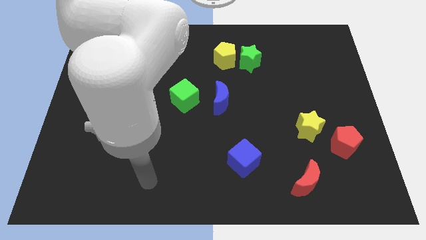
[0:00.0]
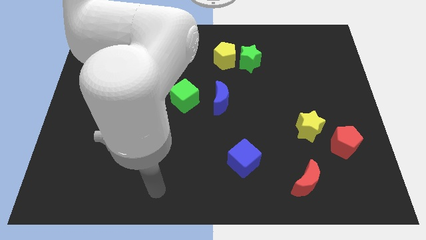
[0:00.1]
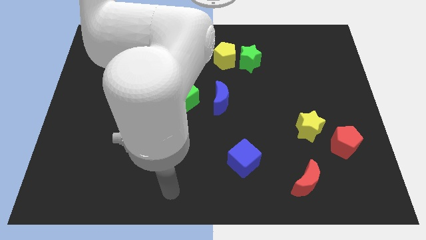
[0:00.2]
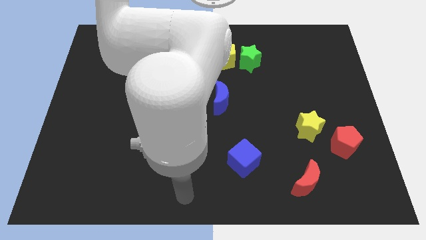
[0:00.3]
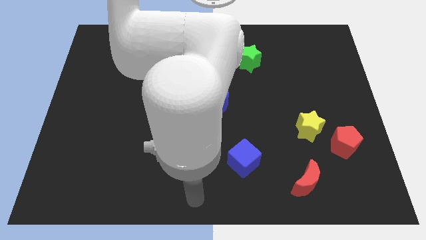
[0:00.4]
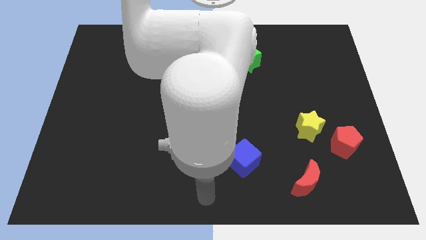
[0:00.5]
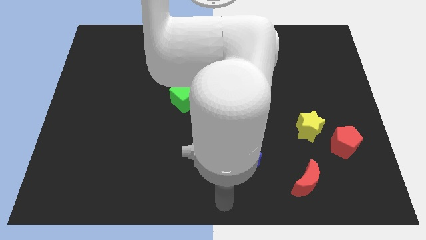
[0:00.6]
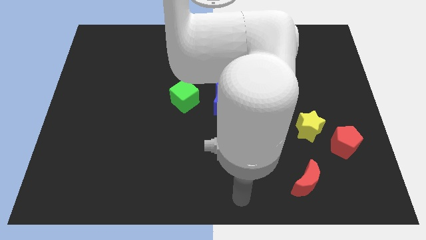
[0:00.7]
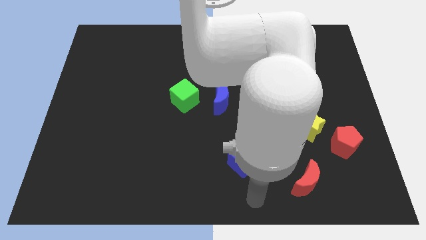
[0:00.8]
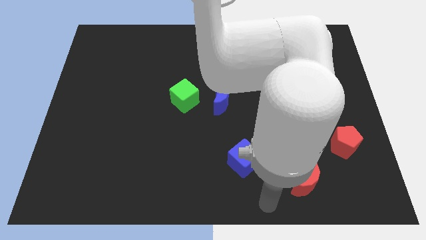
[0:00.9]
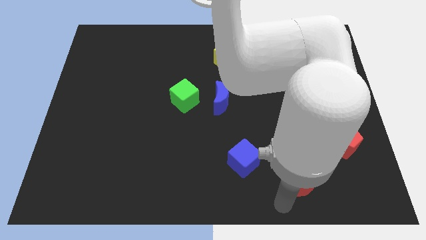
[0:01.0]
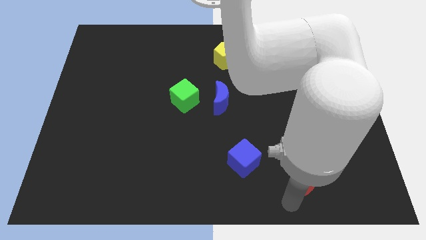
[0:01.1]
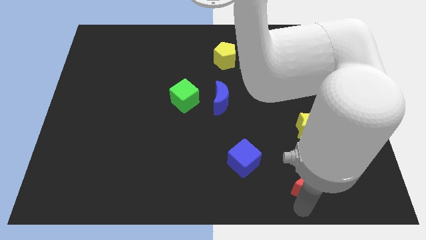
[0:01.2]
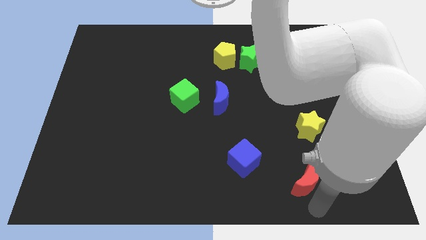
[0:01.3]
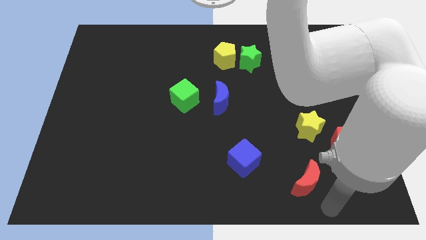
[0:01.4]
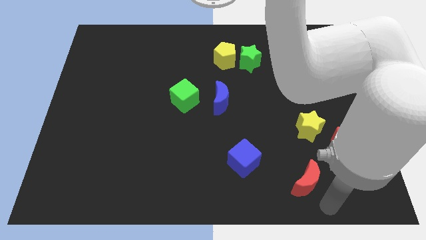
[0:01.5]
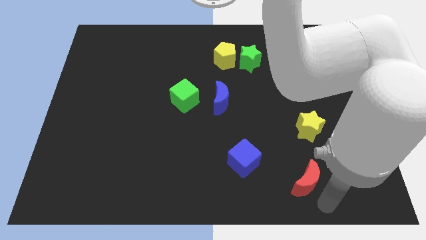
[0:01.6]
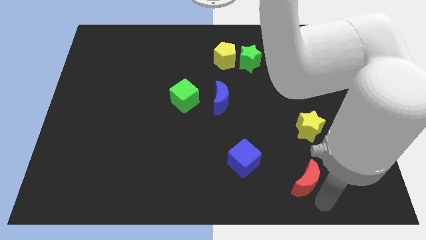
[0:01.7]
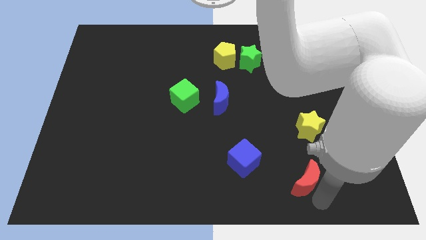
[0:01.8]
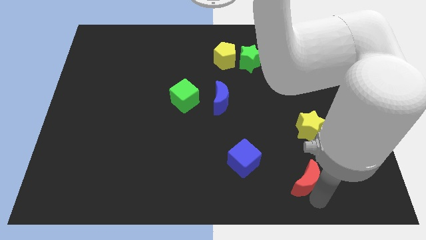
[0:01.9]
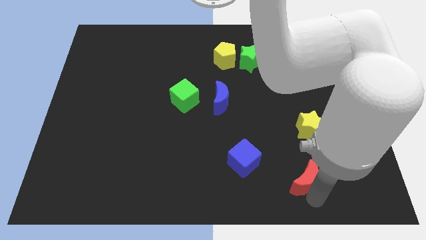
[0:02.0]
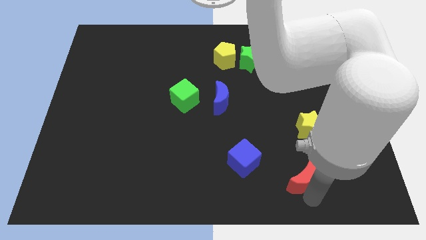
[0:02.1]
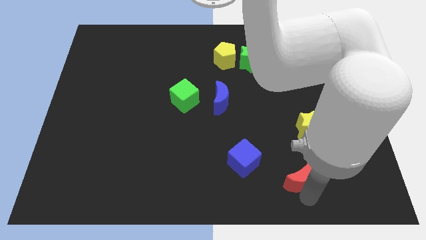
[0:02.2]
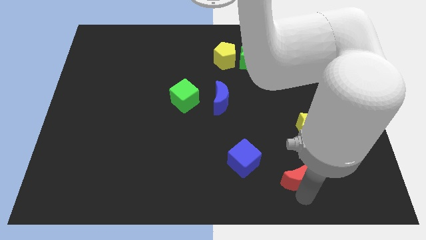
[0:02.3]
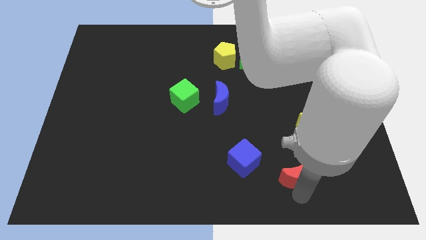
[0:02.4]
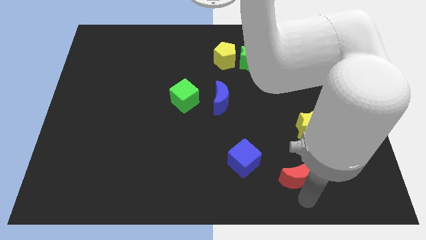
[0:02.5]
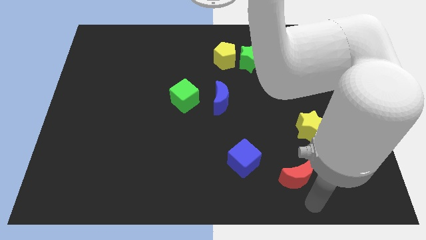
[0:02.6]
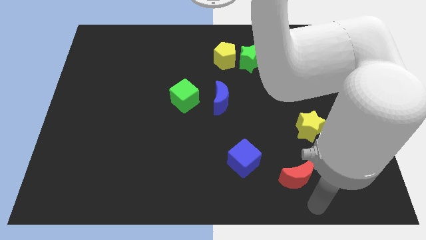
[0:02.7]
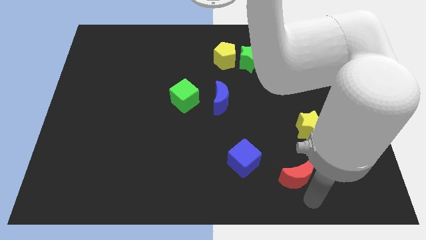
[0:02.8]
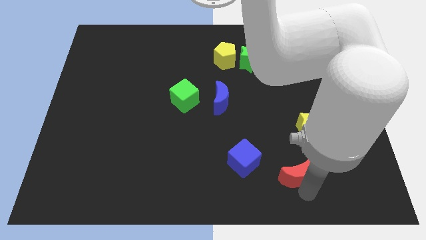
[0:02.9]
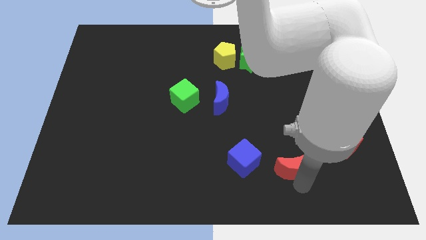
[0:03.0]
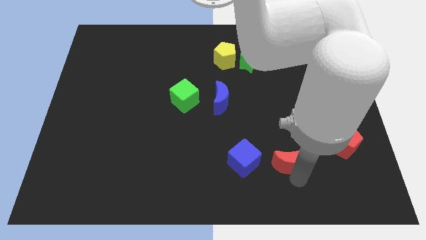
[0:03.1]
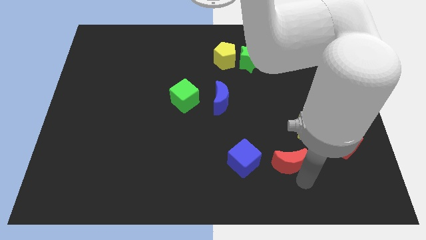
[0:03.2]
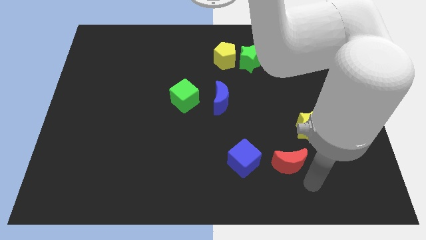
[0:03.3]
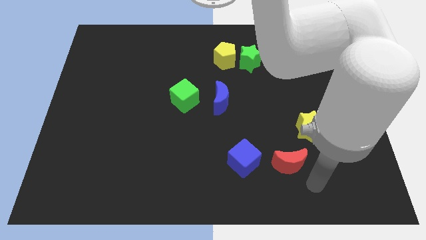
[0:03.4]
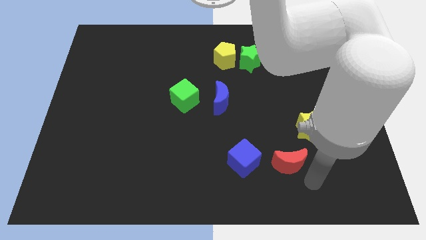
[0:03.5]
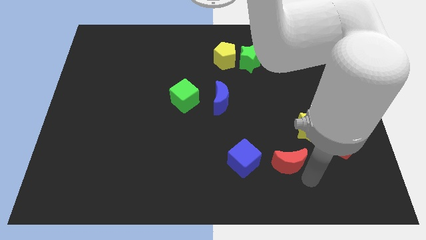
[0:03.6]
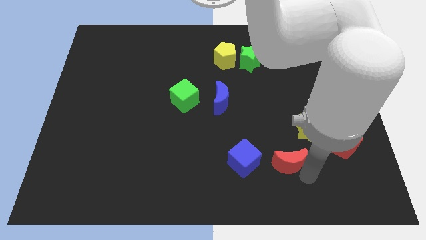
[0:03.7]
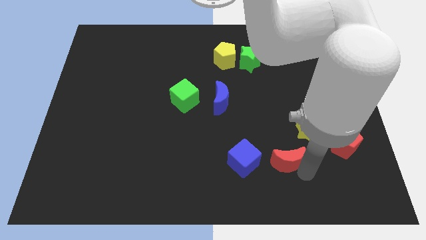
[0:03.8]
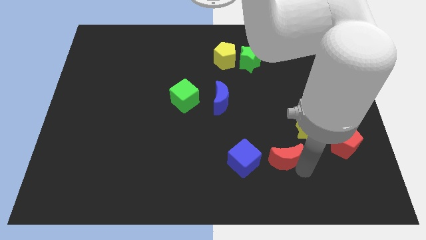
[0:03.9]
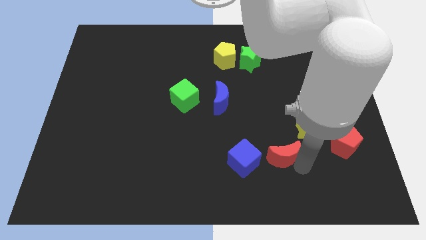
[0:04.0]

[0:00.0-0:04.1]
slide the red moon a bit diagonally up and to the left

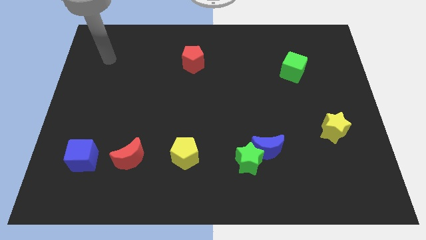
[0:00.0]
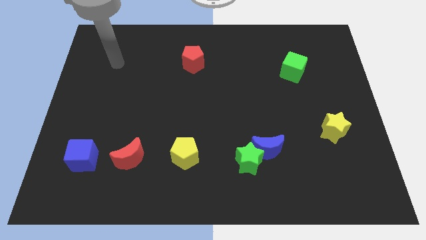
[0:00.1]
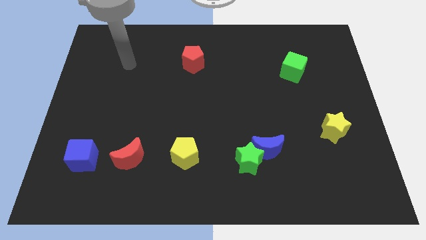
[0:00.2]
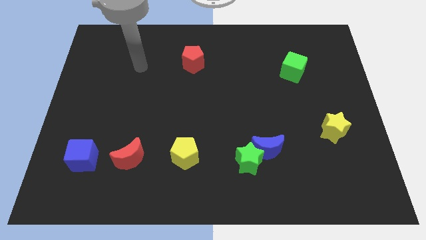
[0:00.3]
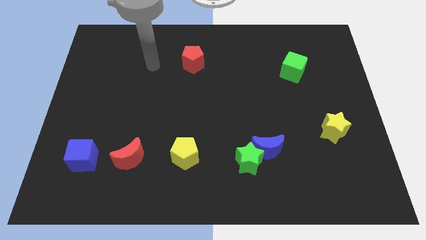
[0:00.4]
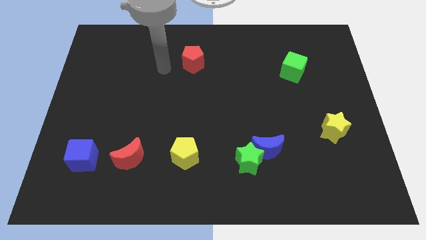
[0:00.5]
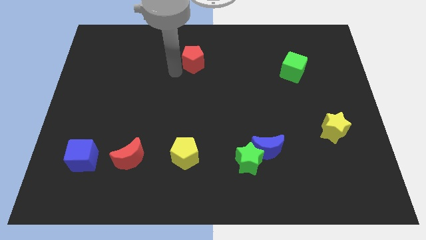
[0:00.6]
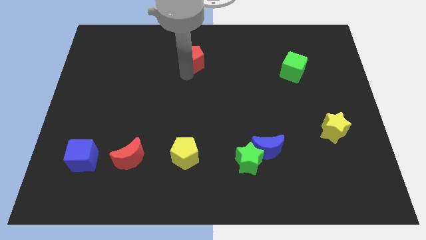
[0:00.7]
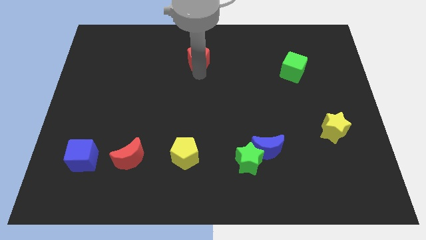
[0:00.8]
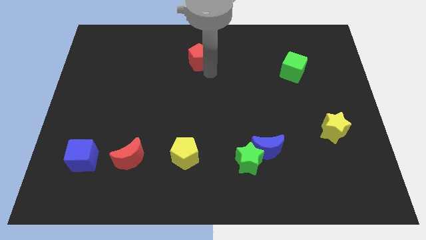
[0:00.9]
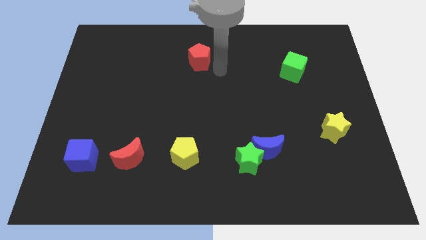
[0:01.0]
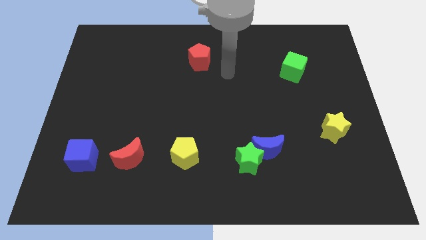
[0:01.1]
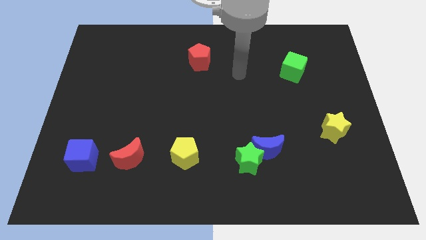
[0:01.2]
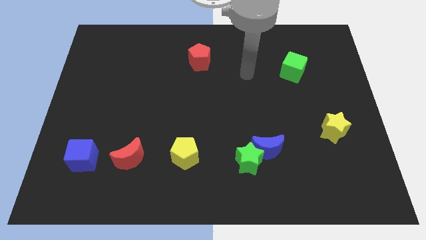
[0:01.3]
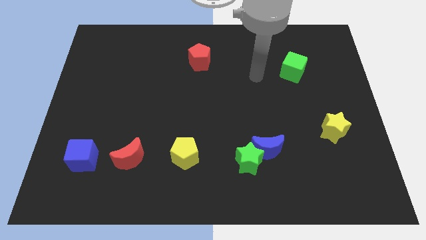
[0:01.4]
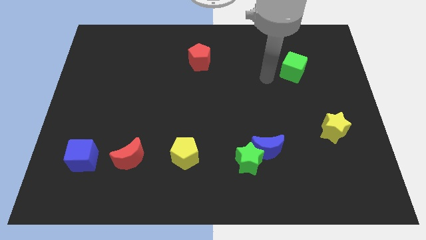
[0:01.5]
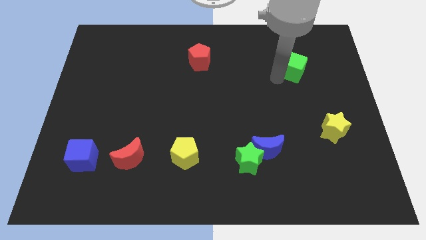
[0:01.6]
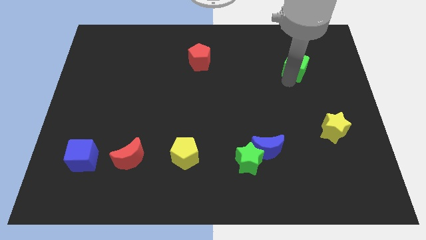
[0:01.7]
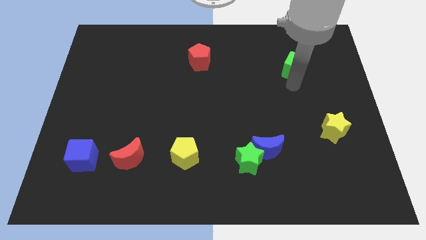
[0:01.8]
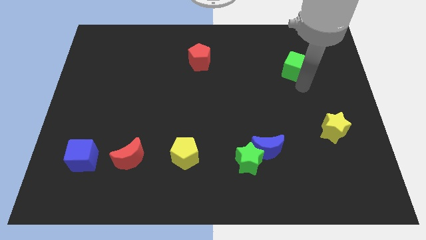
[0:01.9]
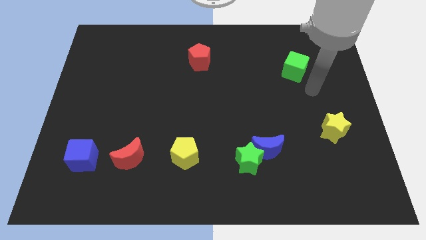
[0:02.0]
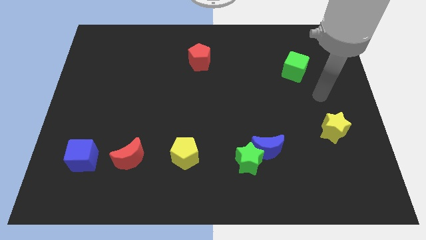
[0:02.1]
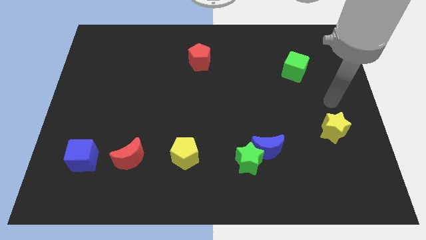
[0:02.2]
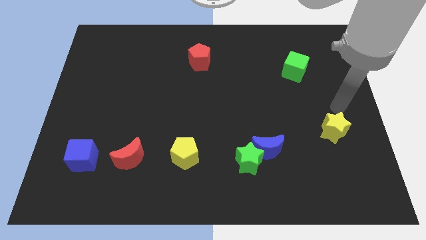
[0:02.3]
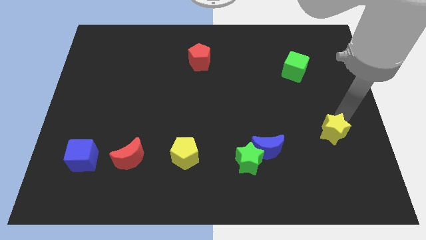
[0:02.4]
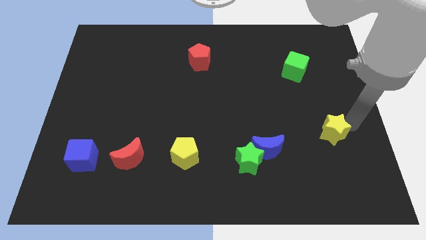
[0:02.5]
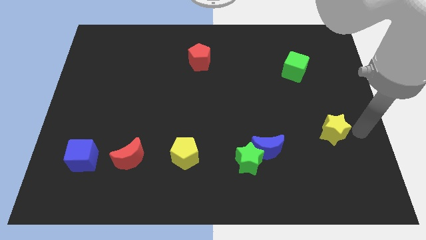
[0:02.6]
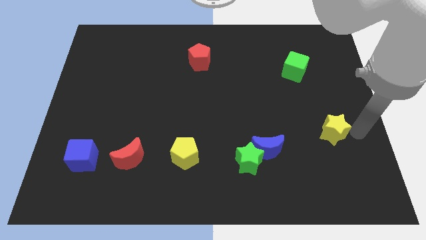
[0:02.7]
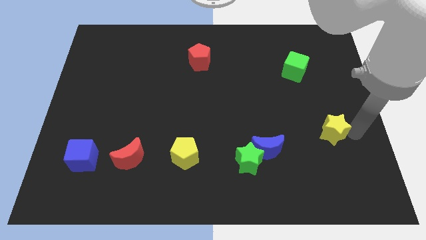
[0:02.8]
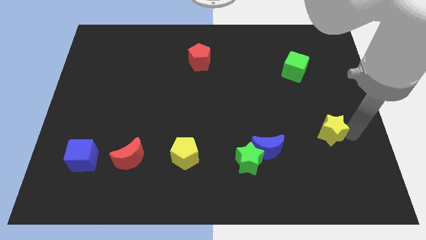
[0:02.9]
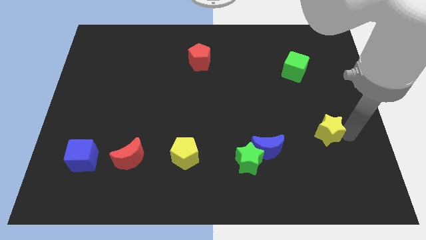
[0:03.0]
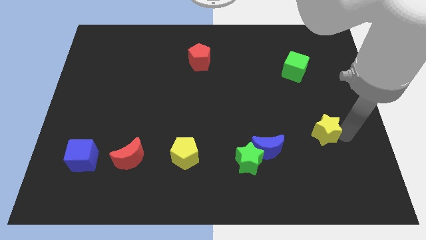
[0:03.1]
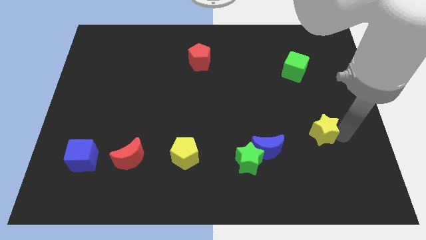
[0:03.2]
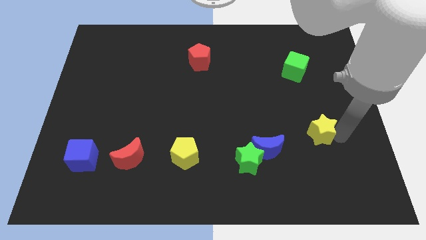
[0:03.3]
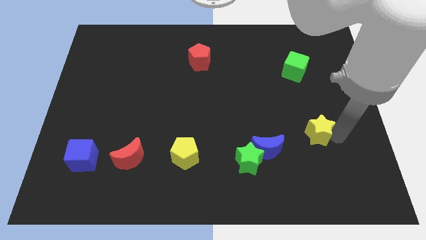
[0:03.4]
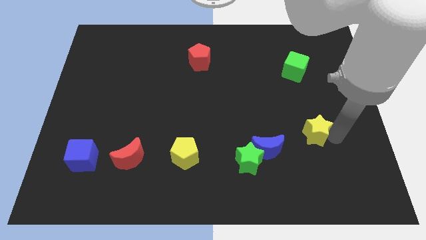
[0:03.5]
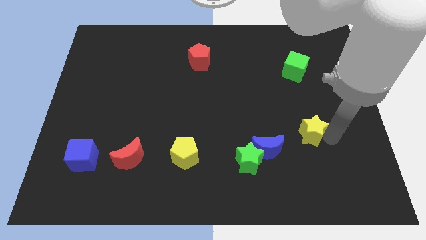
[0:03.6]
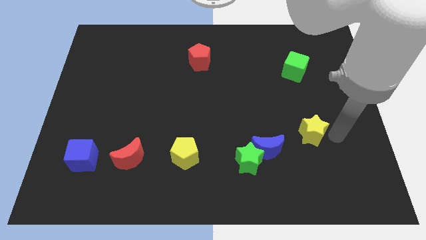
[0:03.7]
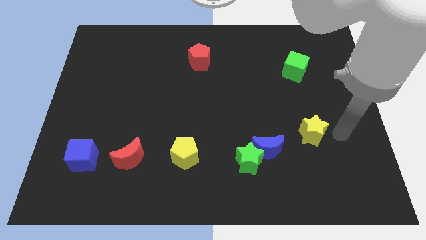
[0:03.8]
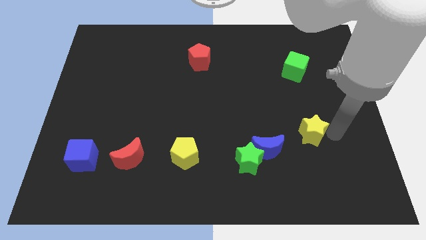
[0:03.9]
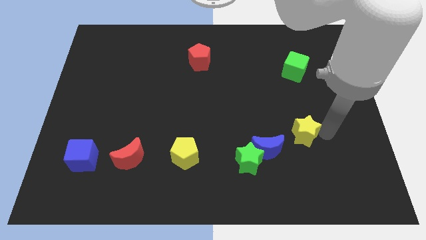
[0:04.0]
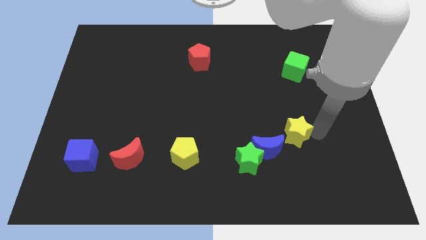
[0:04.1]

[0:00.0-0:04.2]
move the yellow star a bit to the left
